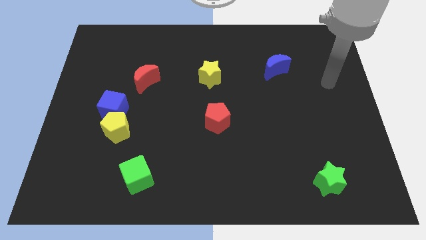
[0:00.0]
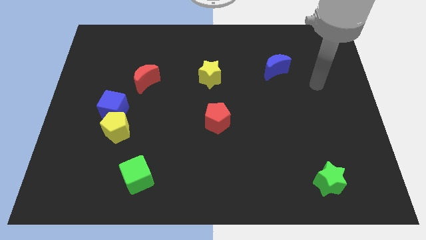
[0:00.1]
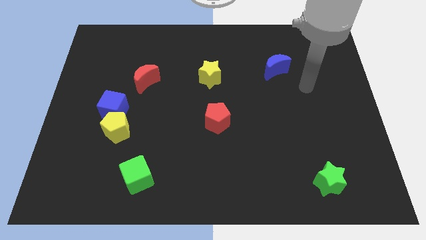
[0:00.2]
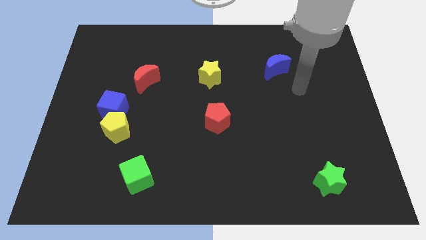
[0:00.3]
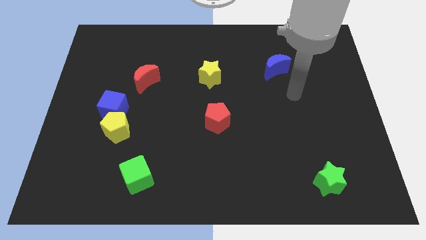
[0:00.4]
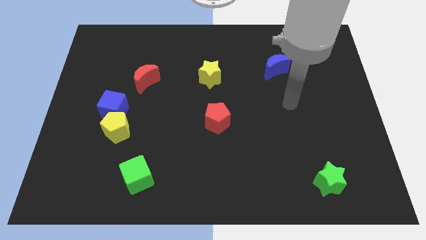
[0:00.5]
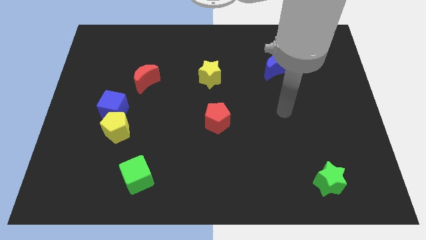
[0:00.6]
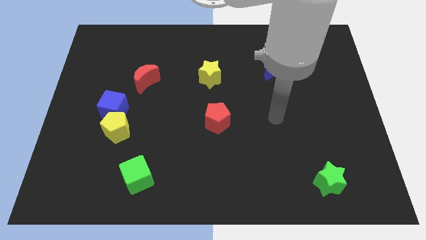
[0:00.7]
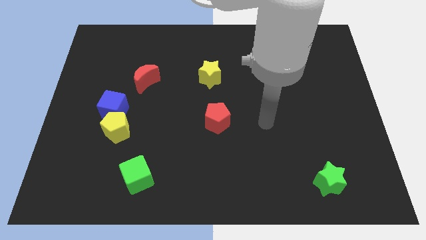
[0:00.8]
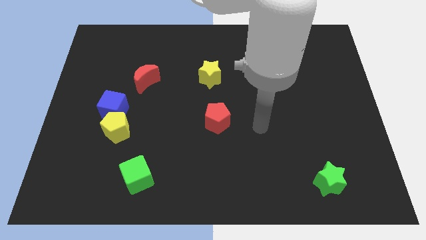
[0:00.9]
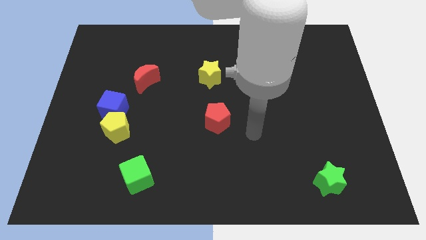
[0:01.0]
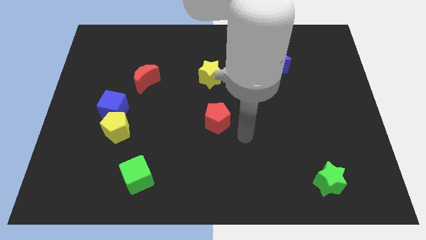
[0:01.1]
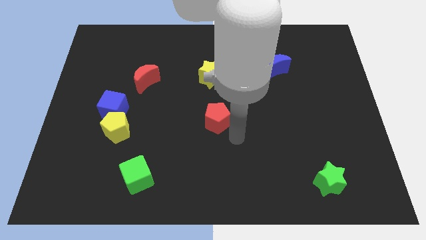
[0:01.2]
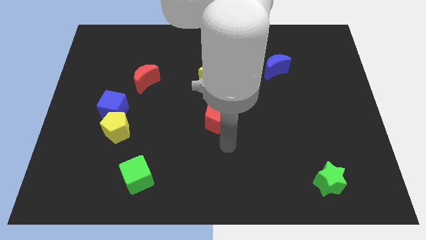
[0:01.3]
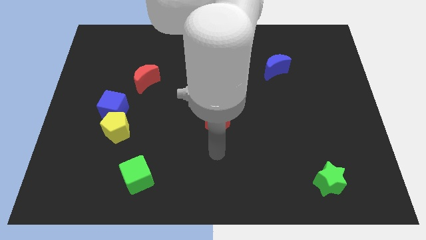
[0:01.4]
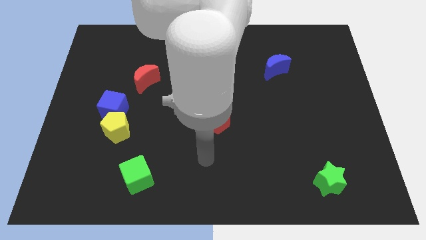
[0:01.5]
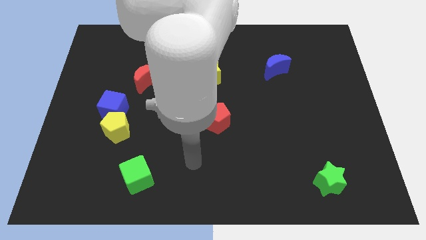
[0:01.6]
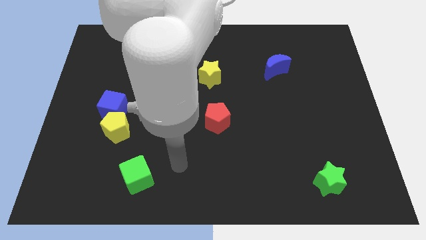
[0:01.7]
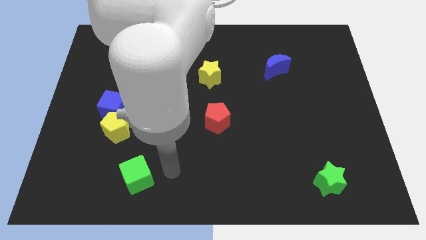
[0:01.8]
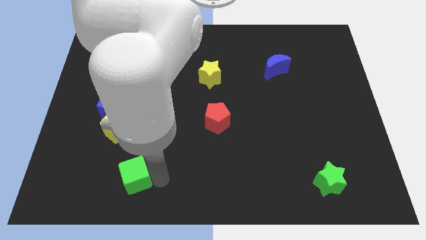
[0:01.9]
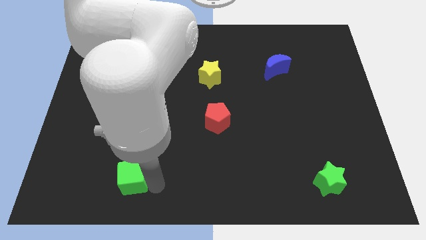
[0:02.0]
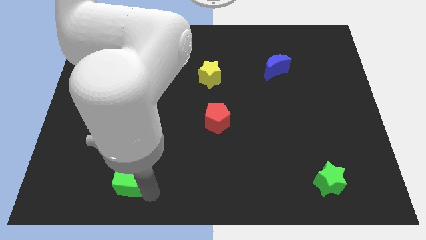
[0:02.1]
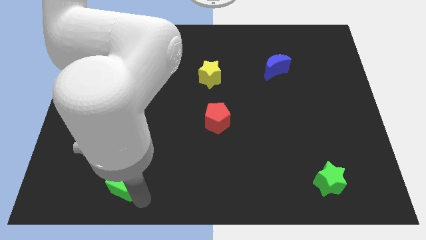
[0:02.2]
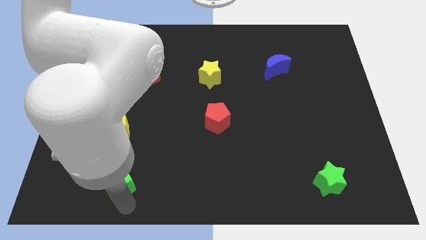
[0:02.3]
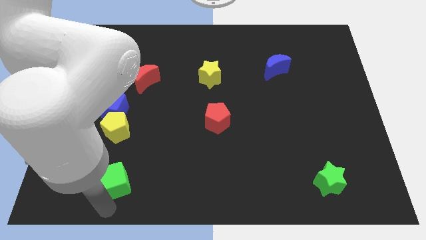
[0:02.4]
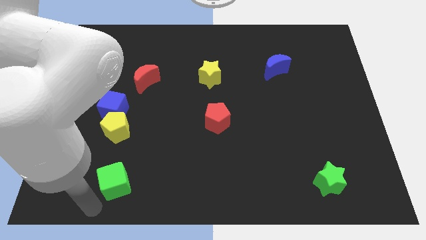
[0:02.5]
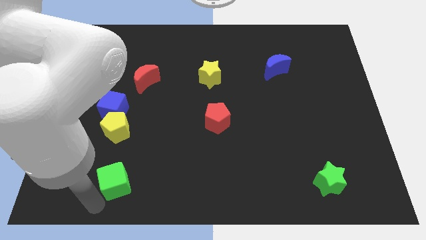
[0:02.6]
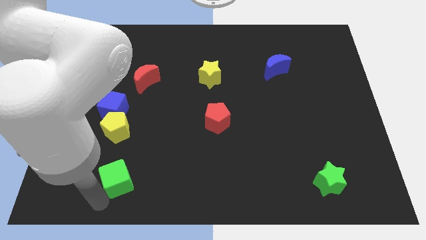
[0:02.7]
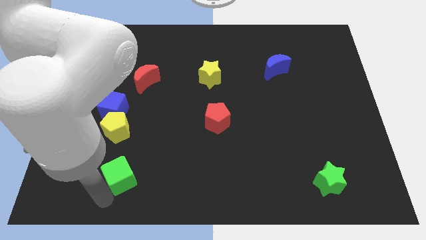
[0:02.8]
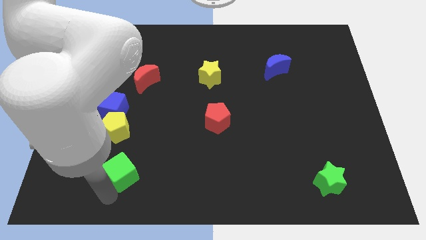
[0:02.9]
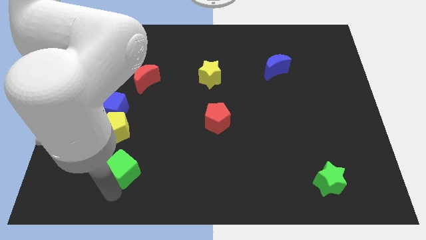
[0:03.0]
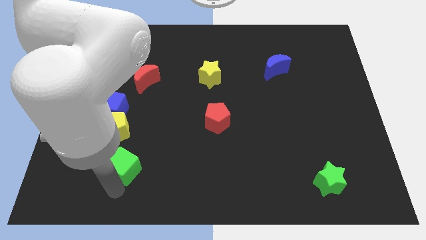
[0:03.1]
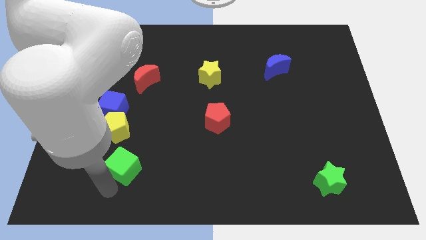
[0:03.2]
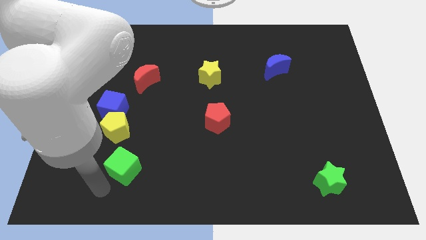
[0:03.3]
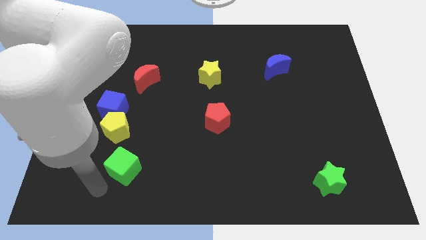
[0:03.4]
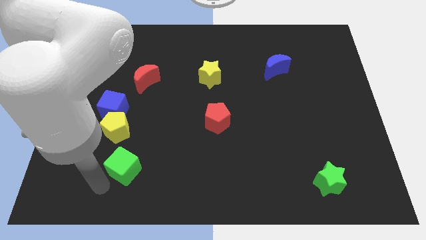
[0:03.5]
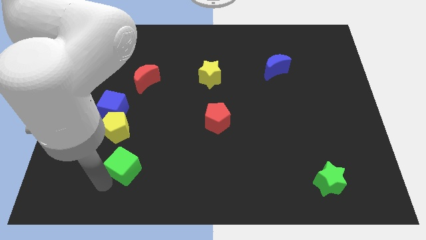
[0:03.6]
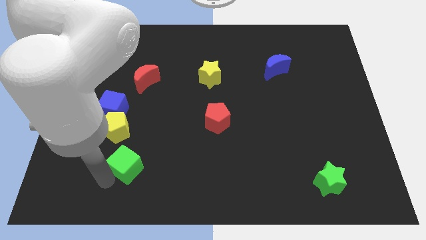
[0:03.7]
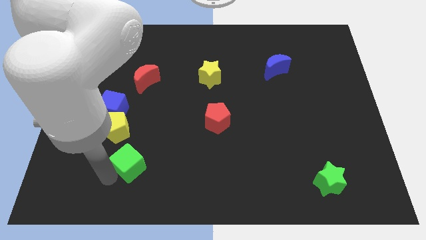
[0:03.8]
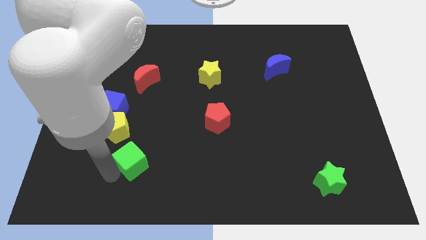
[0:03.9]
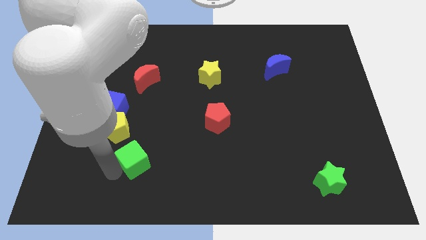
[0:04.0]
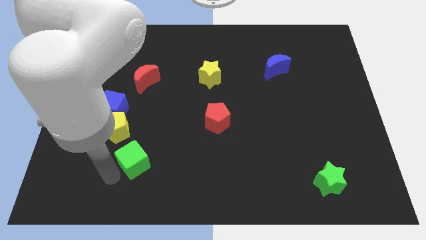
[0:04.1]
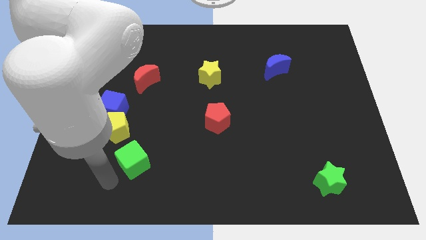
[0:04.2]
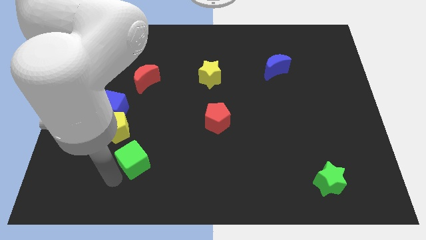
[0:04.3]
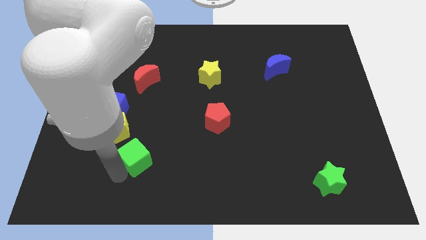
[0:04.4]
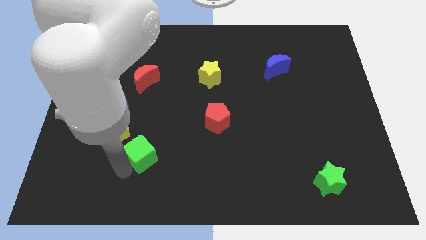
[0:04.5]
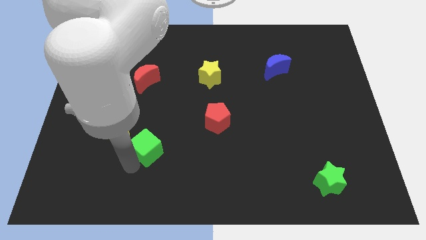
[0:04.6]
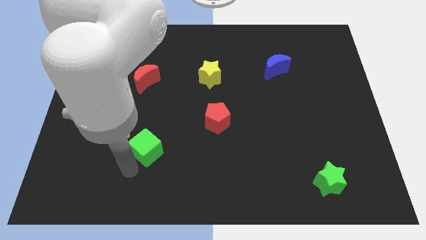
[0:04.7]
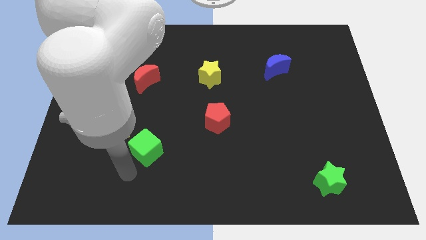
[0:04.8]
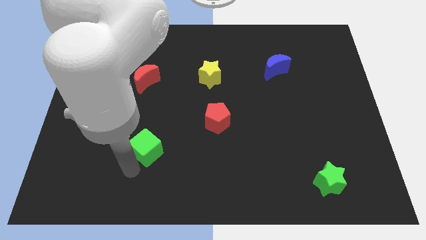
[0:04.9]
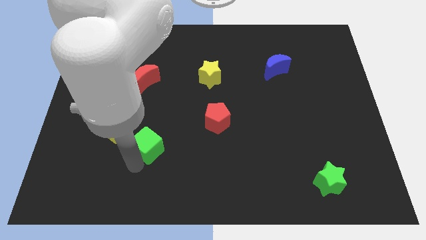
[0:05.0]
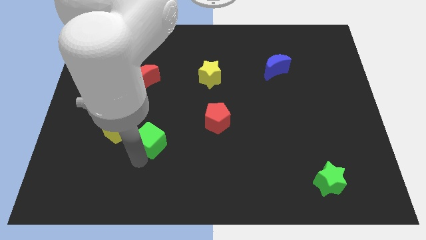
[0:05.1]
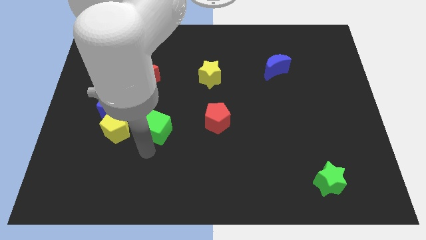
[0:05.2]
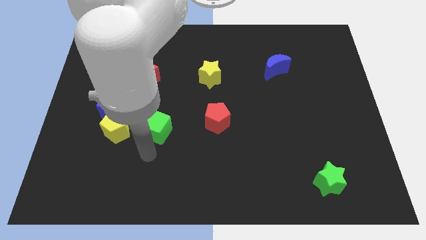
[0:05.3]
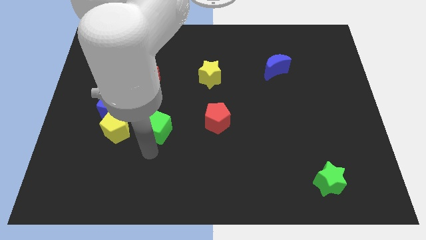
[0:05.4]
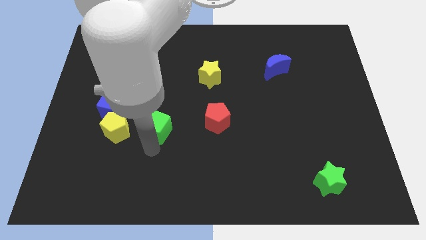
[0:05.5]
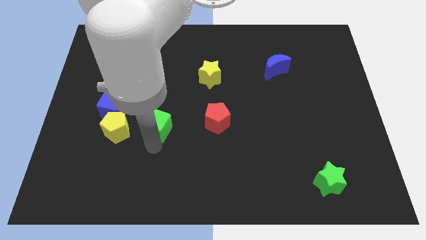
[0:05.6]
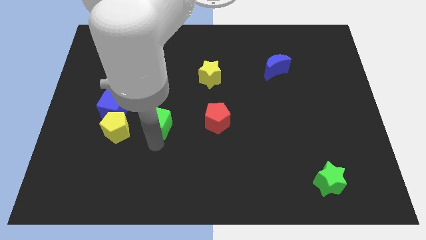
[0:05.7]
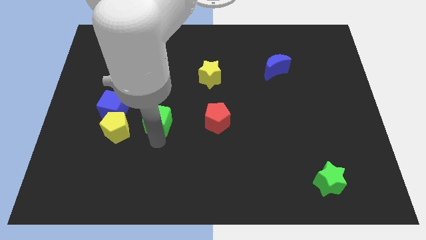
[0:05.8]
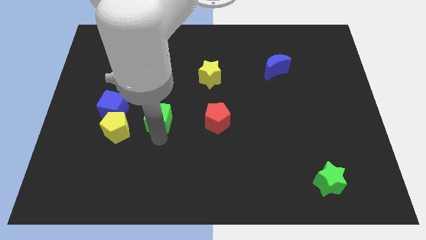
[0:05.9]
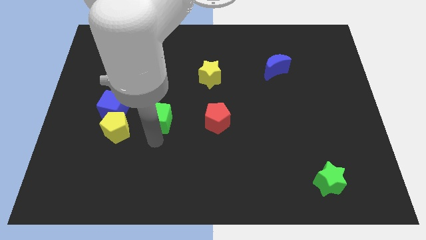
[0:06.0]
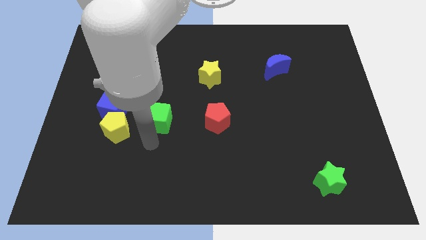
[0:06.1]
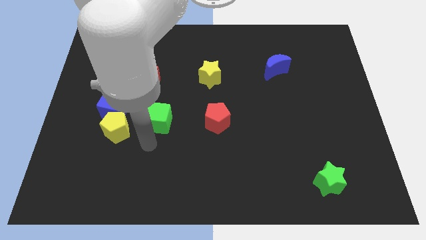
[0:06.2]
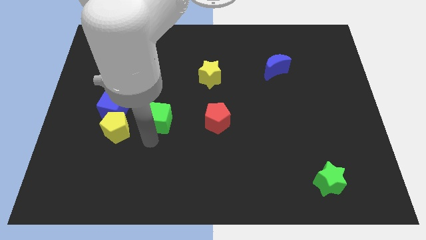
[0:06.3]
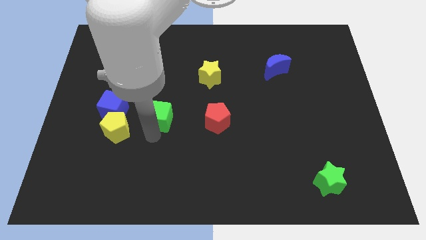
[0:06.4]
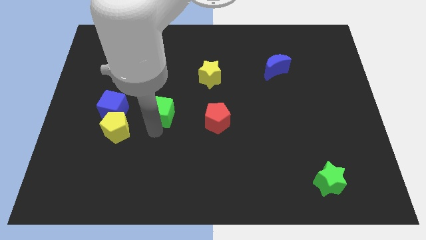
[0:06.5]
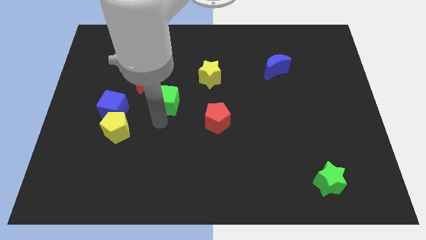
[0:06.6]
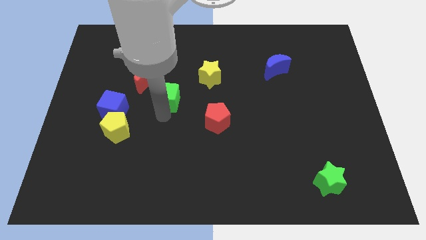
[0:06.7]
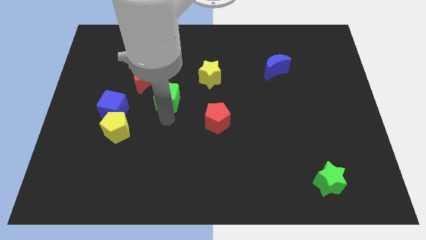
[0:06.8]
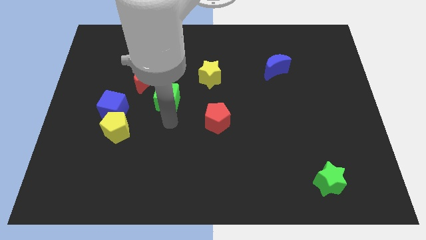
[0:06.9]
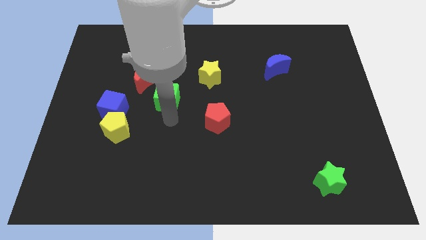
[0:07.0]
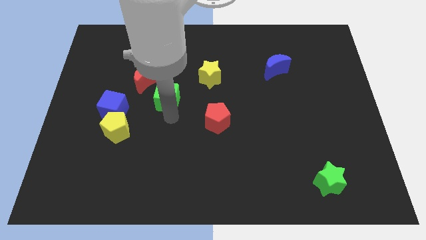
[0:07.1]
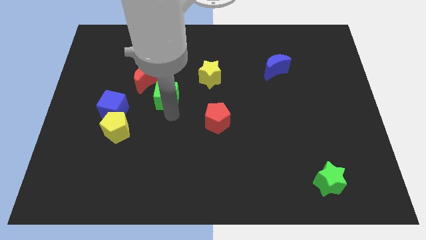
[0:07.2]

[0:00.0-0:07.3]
push the green cube upwards

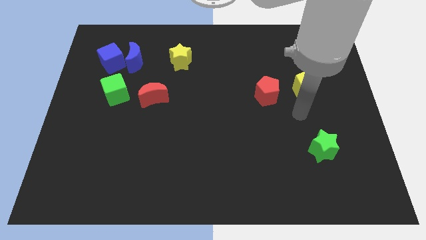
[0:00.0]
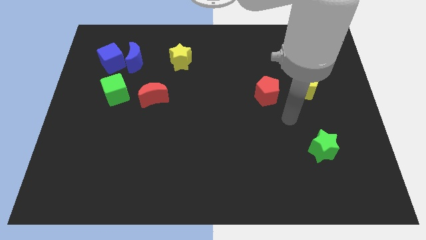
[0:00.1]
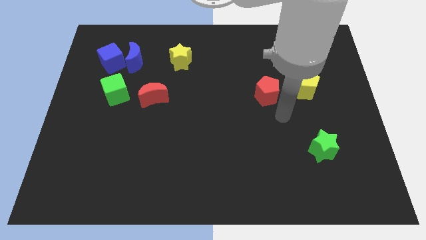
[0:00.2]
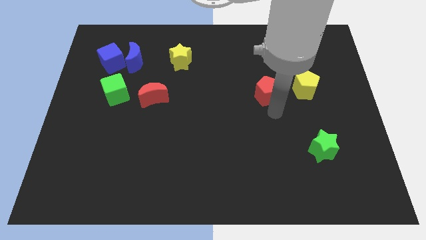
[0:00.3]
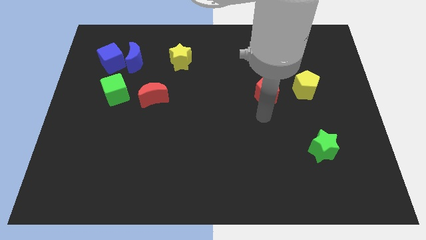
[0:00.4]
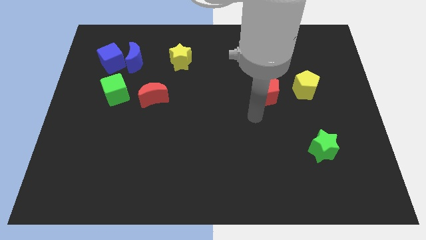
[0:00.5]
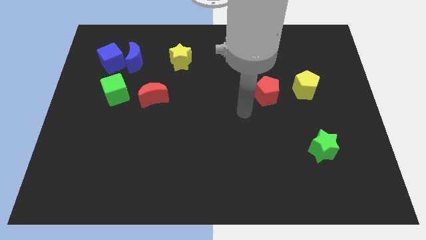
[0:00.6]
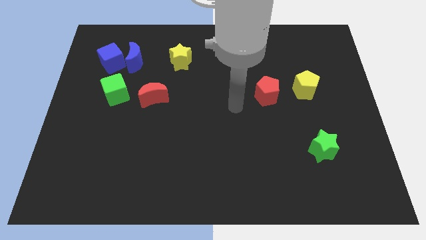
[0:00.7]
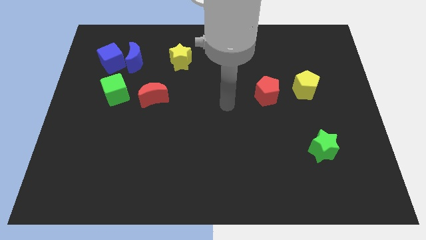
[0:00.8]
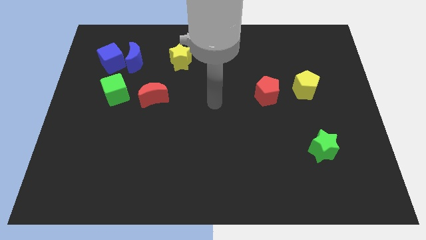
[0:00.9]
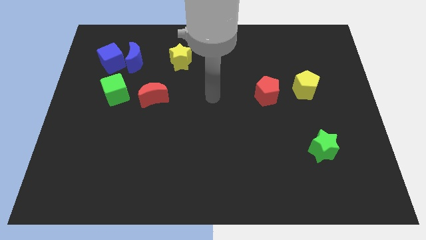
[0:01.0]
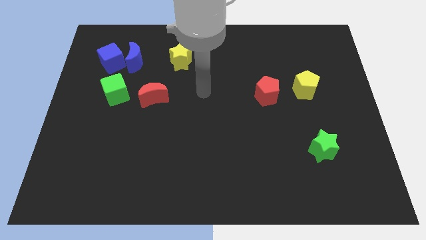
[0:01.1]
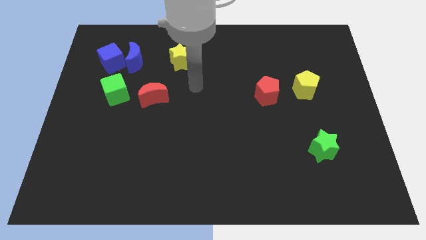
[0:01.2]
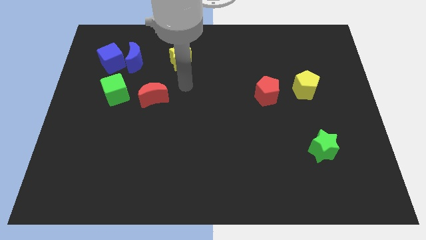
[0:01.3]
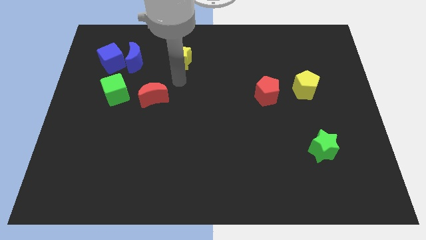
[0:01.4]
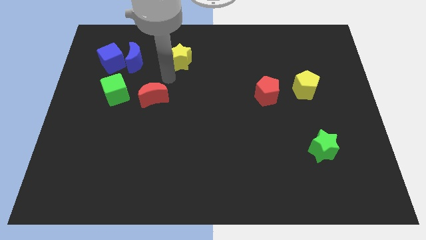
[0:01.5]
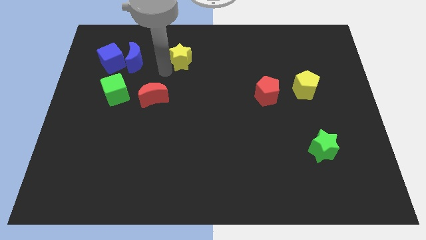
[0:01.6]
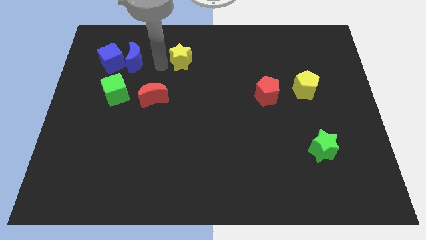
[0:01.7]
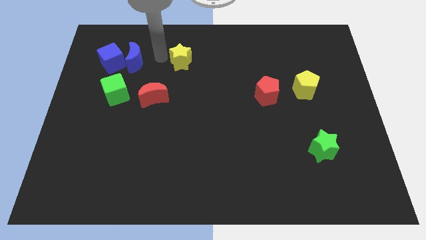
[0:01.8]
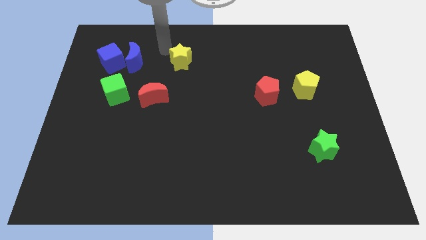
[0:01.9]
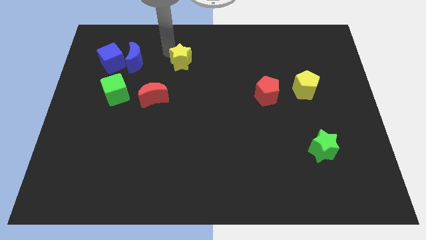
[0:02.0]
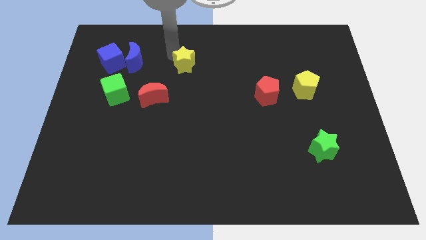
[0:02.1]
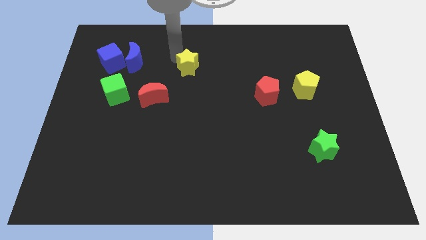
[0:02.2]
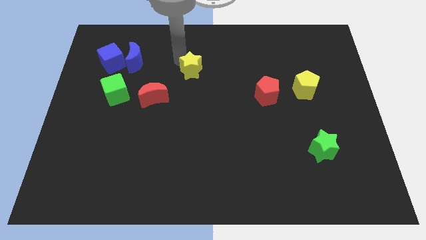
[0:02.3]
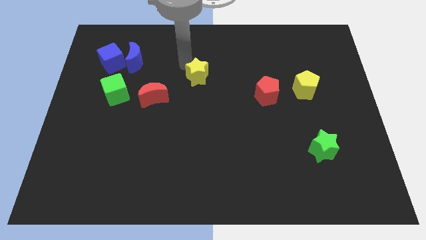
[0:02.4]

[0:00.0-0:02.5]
move the yellow star down and then to the right a little bit
